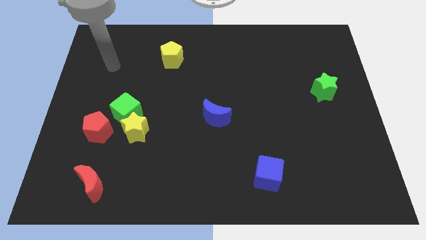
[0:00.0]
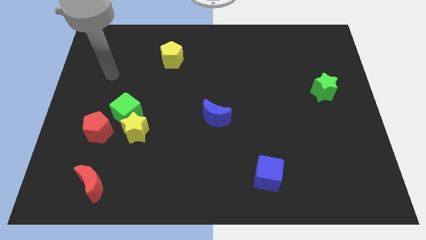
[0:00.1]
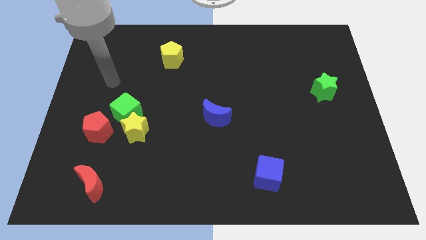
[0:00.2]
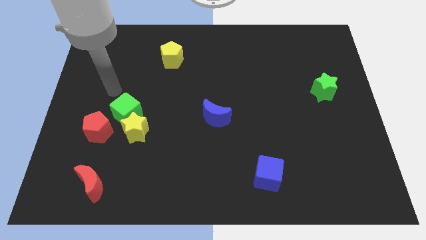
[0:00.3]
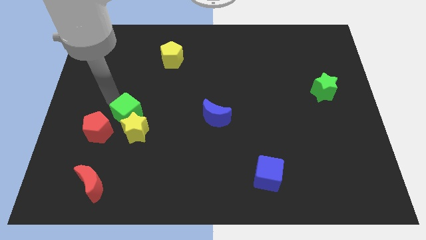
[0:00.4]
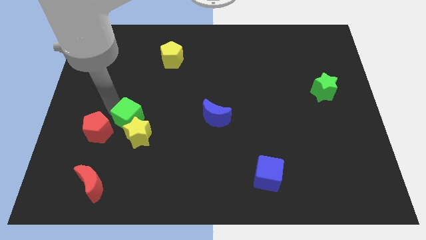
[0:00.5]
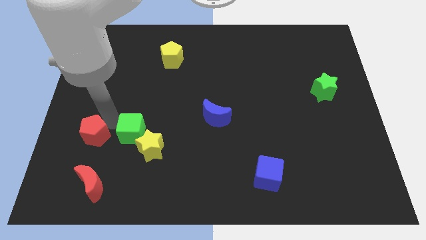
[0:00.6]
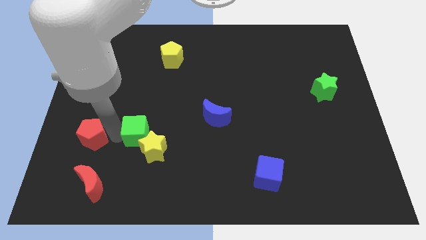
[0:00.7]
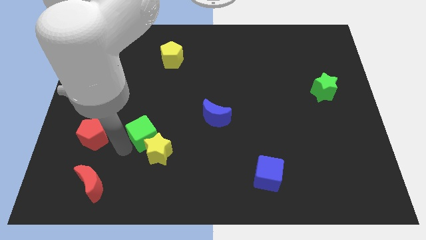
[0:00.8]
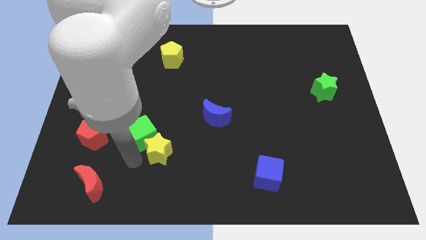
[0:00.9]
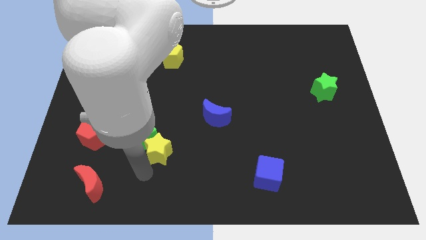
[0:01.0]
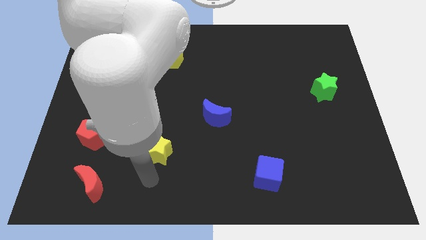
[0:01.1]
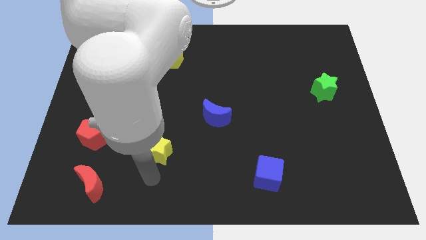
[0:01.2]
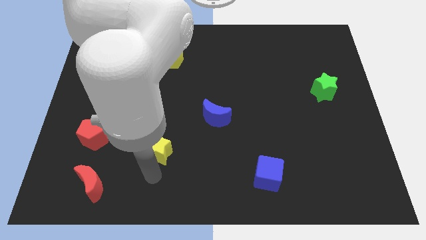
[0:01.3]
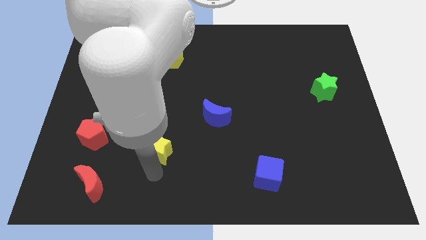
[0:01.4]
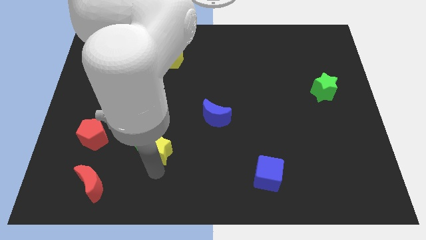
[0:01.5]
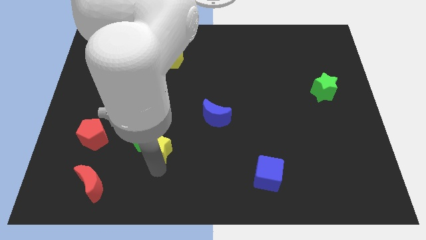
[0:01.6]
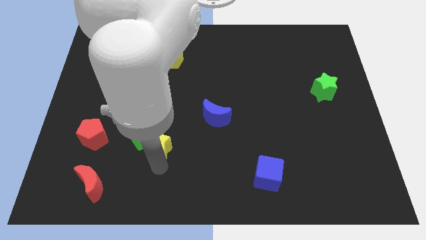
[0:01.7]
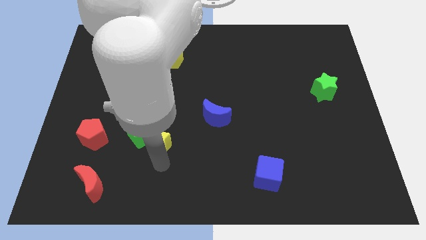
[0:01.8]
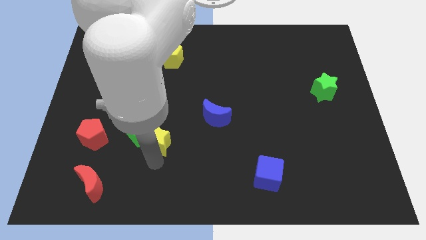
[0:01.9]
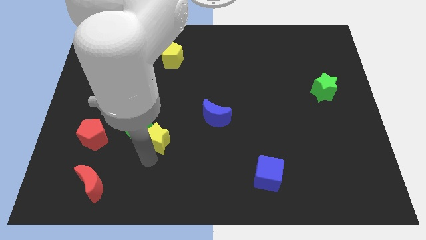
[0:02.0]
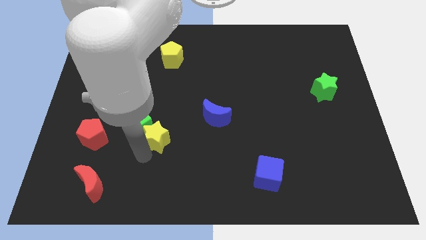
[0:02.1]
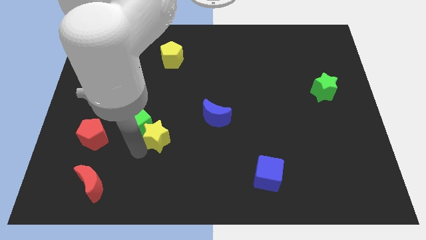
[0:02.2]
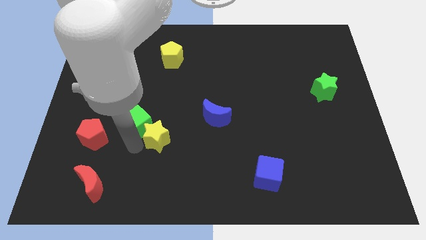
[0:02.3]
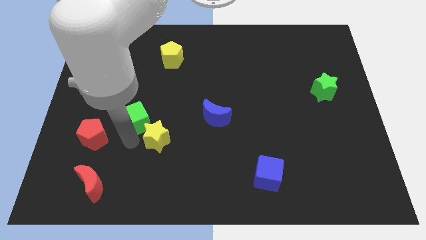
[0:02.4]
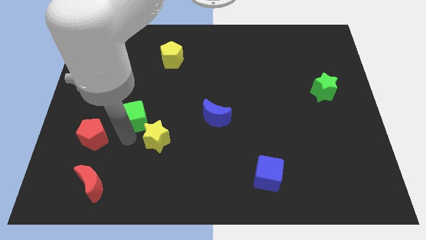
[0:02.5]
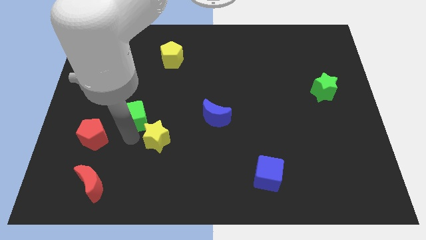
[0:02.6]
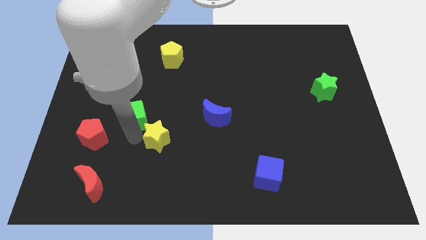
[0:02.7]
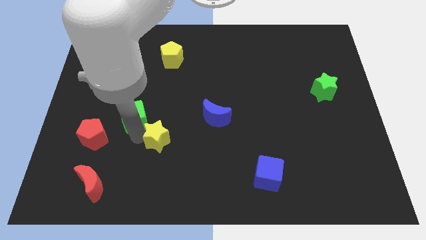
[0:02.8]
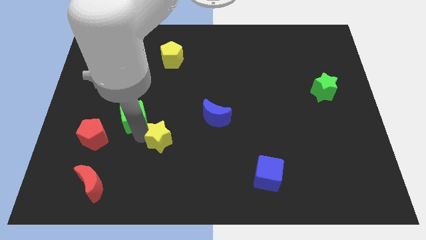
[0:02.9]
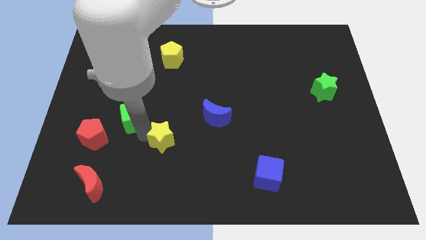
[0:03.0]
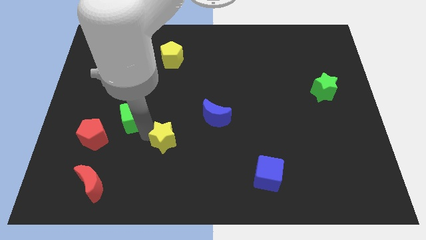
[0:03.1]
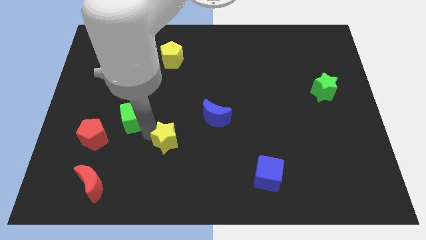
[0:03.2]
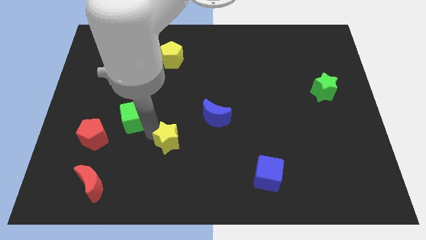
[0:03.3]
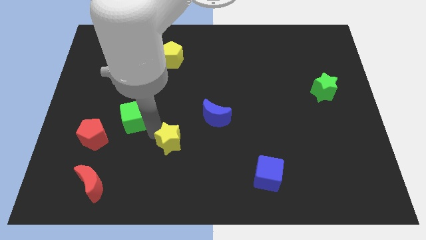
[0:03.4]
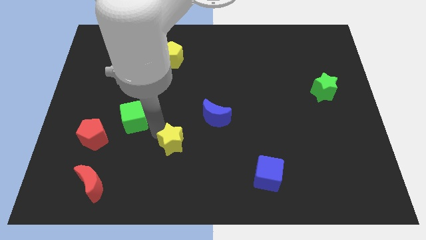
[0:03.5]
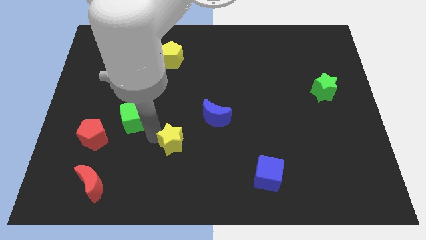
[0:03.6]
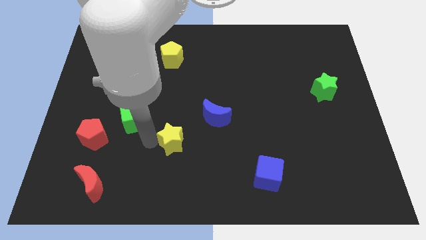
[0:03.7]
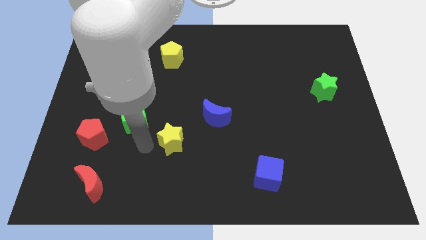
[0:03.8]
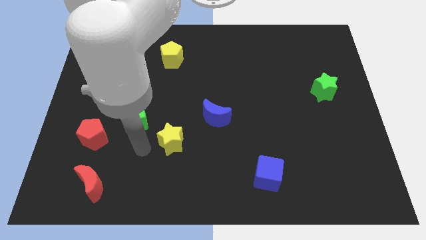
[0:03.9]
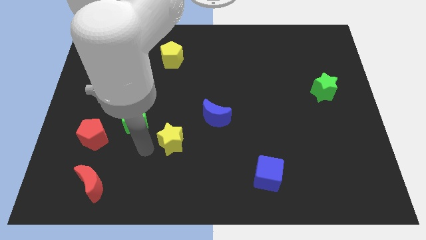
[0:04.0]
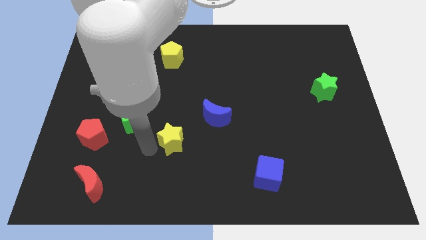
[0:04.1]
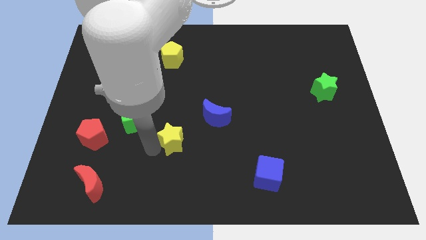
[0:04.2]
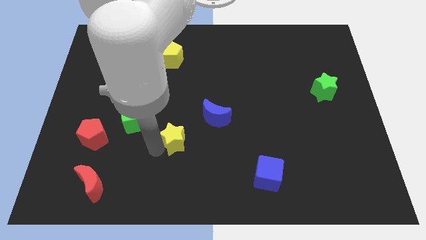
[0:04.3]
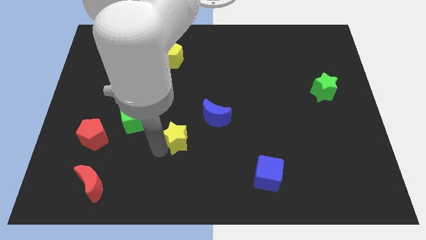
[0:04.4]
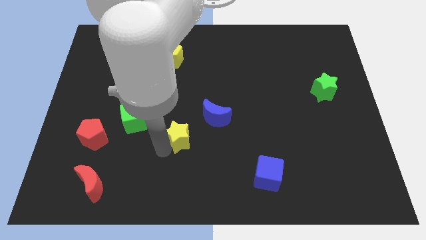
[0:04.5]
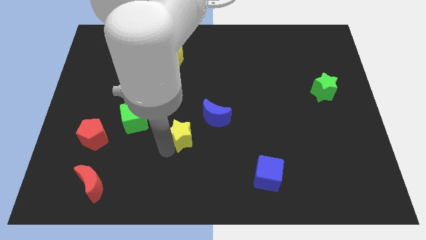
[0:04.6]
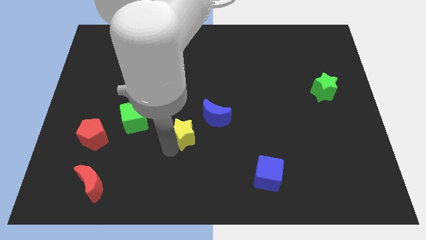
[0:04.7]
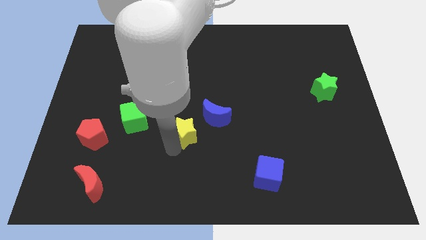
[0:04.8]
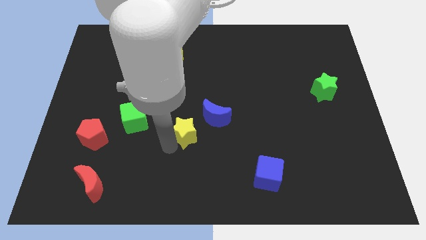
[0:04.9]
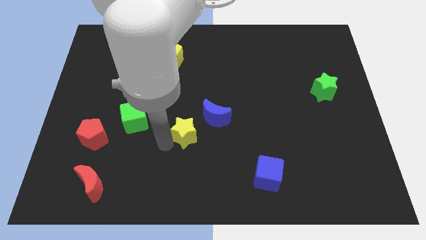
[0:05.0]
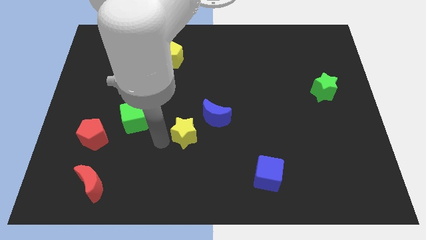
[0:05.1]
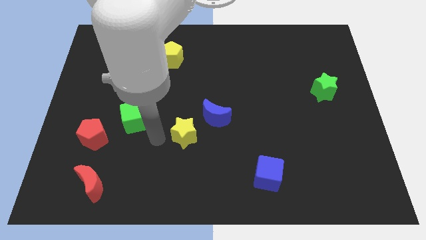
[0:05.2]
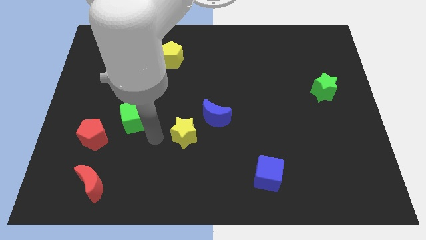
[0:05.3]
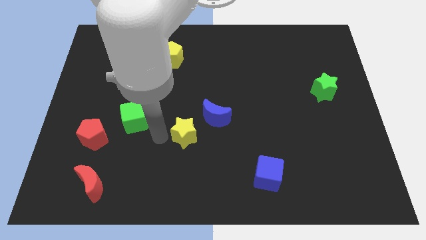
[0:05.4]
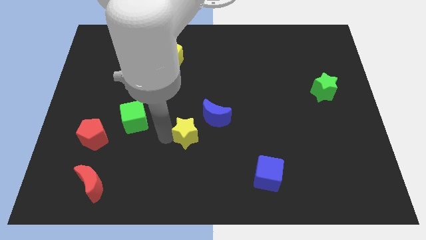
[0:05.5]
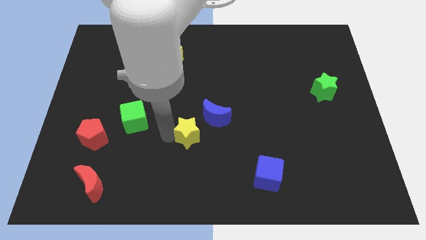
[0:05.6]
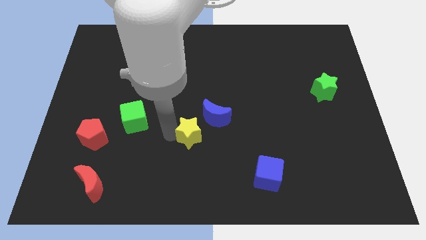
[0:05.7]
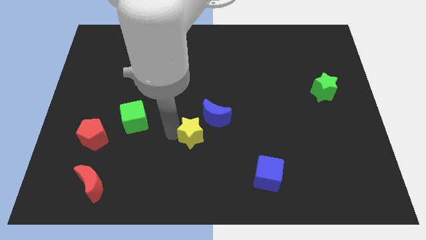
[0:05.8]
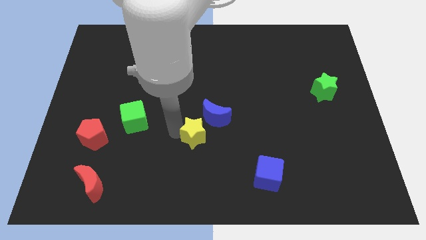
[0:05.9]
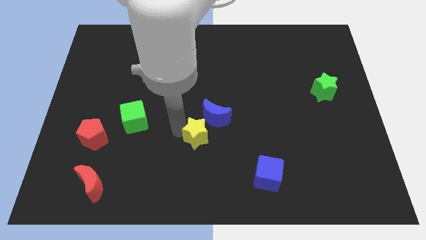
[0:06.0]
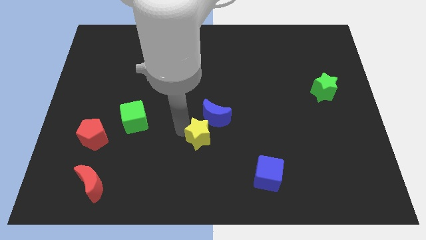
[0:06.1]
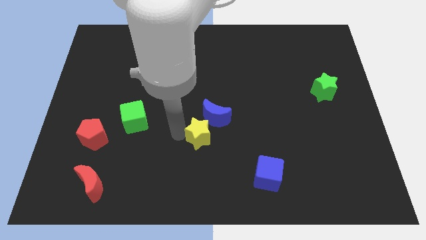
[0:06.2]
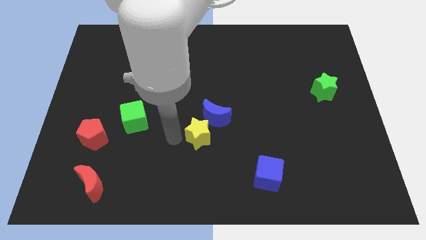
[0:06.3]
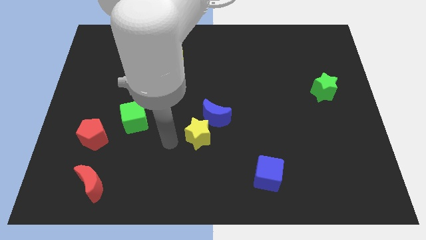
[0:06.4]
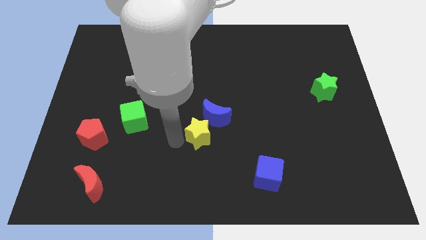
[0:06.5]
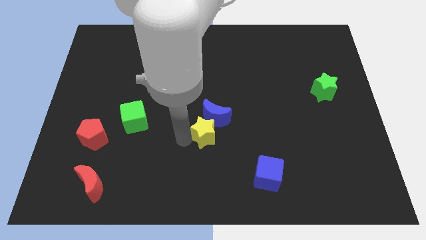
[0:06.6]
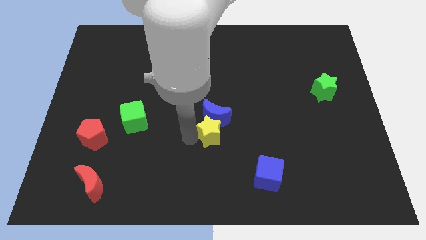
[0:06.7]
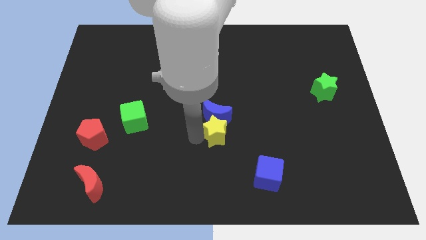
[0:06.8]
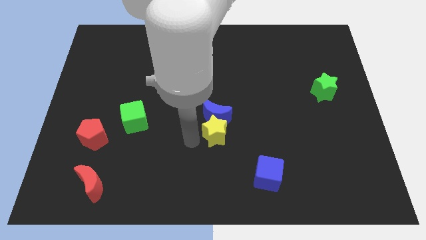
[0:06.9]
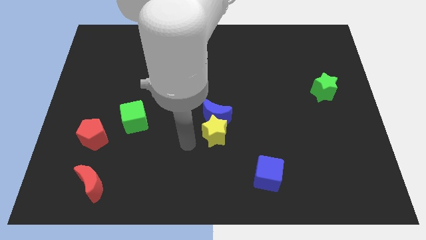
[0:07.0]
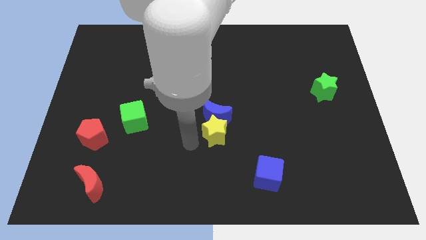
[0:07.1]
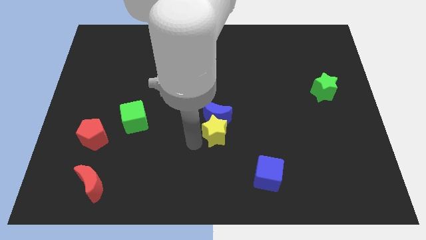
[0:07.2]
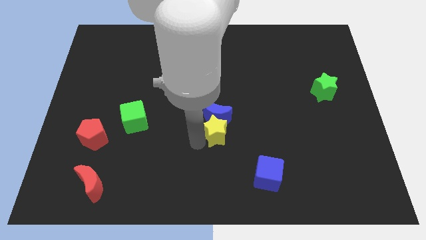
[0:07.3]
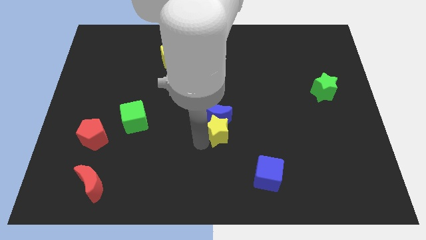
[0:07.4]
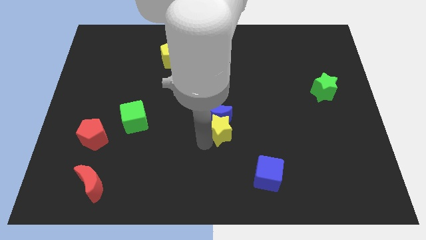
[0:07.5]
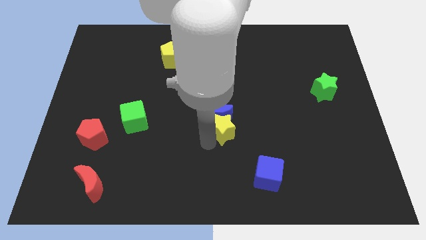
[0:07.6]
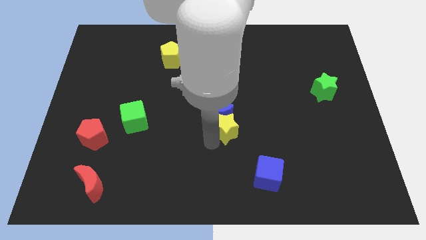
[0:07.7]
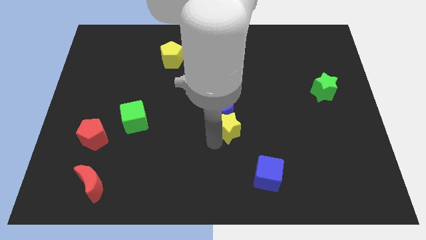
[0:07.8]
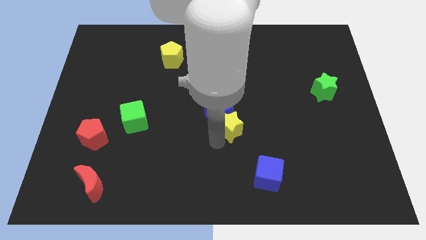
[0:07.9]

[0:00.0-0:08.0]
slide the yellow star to the right of the blue moon
